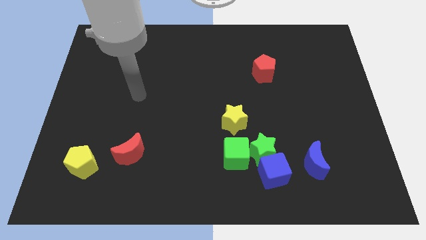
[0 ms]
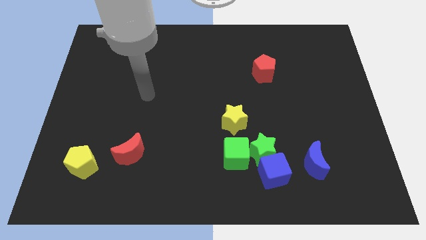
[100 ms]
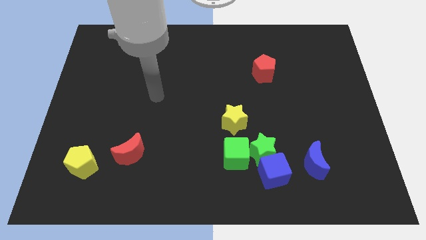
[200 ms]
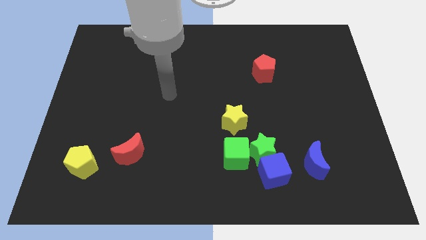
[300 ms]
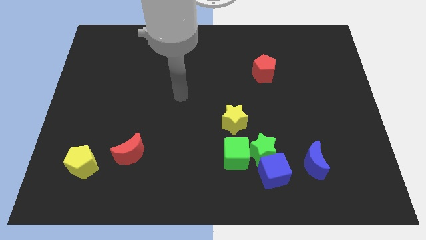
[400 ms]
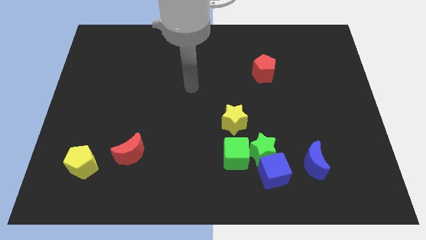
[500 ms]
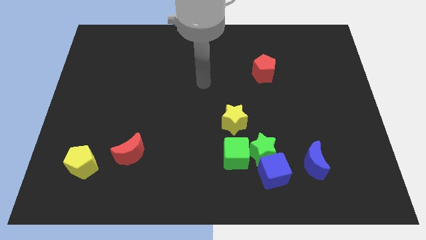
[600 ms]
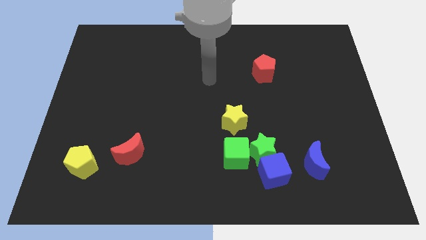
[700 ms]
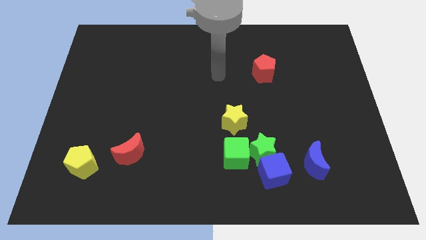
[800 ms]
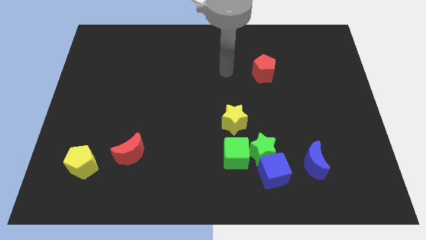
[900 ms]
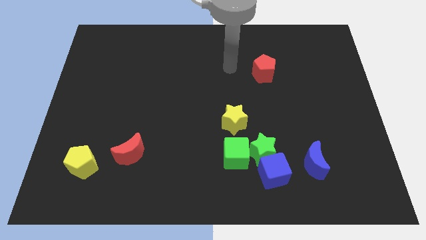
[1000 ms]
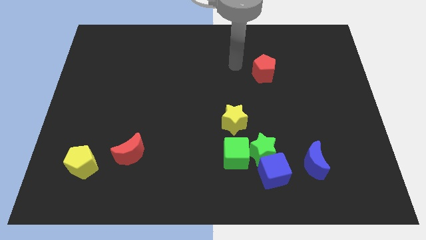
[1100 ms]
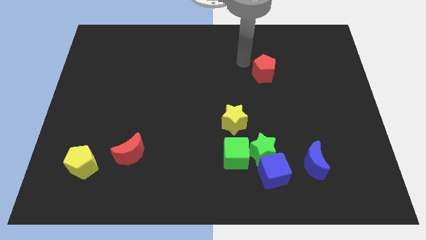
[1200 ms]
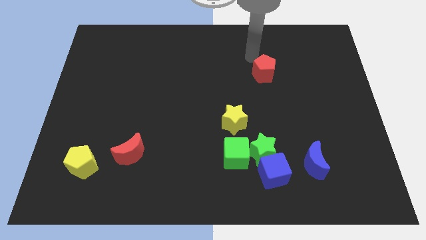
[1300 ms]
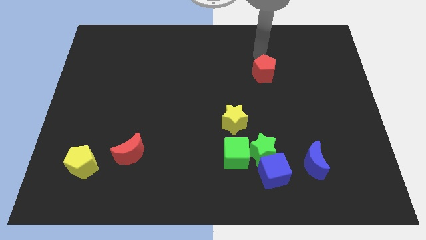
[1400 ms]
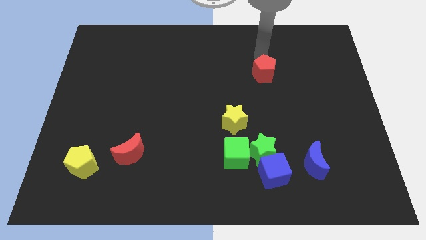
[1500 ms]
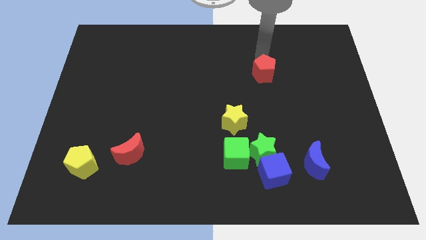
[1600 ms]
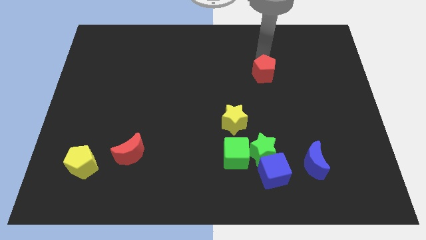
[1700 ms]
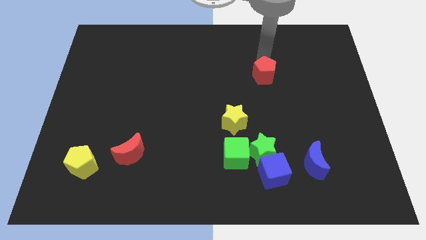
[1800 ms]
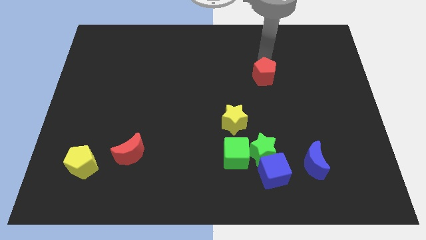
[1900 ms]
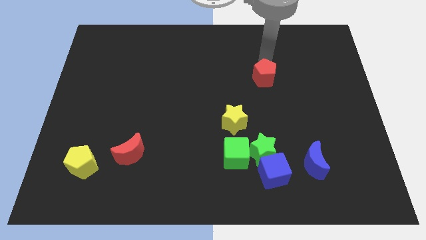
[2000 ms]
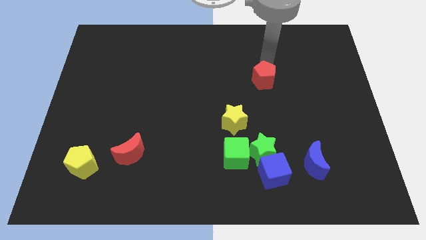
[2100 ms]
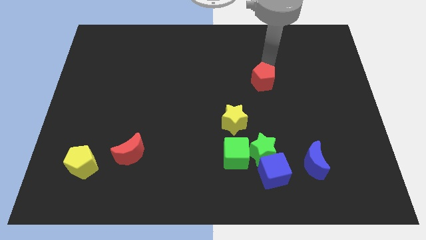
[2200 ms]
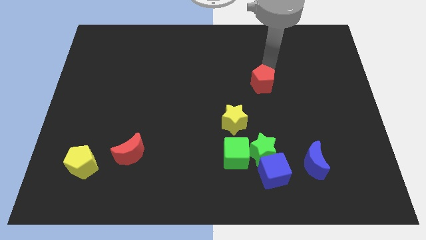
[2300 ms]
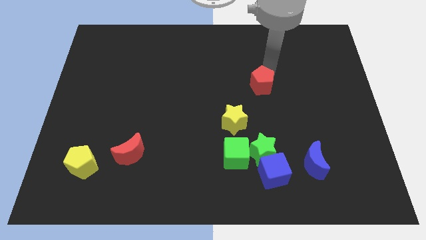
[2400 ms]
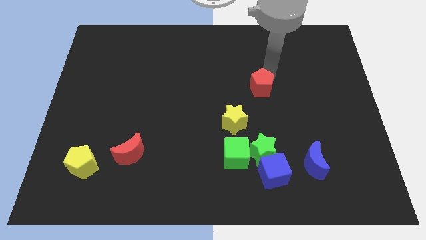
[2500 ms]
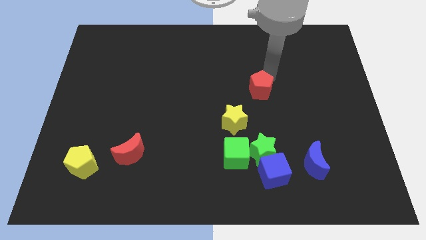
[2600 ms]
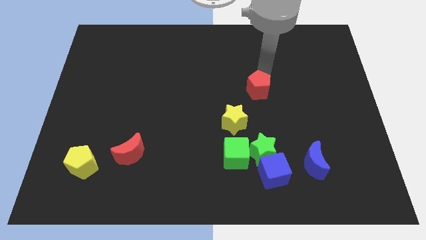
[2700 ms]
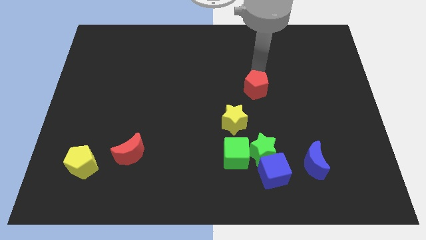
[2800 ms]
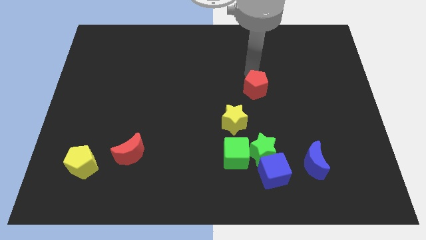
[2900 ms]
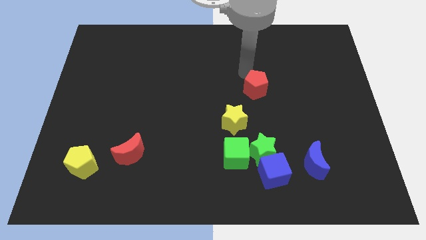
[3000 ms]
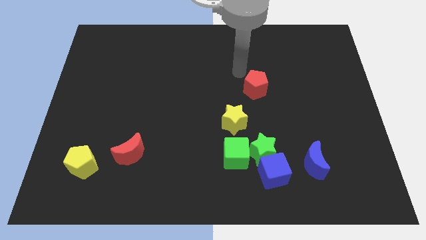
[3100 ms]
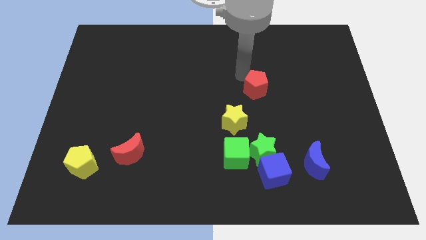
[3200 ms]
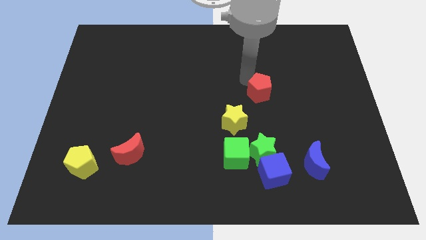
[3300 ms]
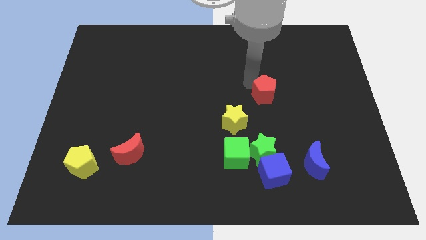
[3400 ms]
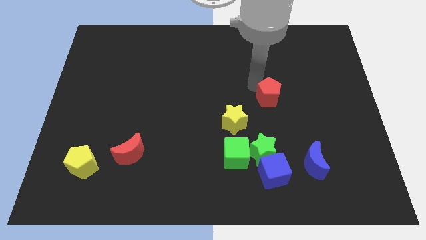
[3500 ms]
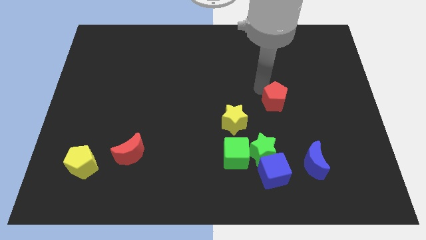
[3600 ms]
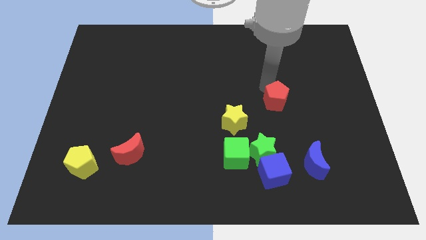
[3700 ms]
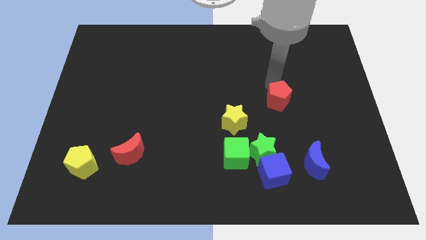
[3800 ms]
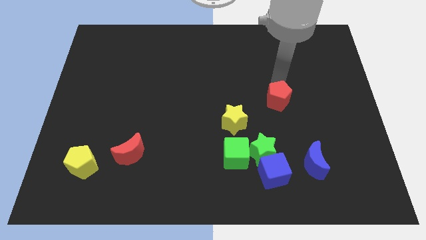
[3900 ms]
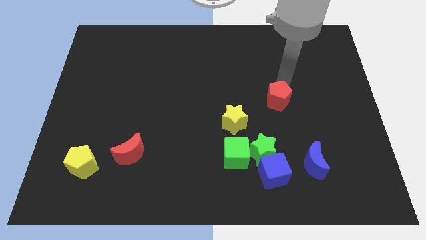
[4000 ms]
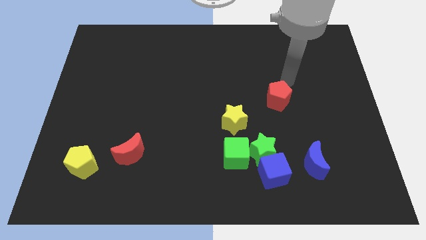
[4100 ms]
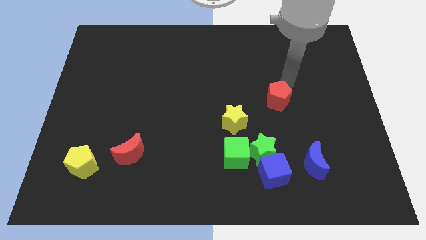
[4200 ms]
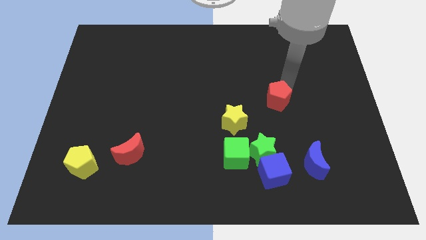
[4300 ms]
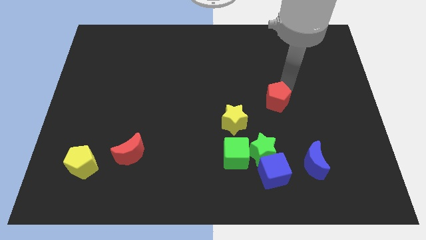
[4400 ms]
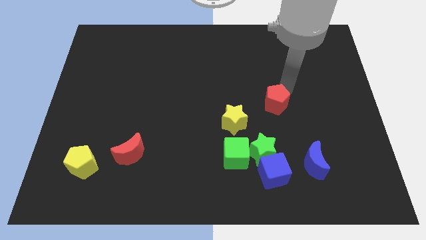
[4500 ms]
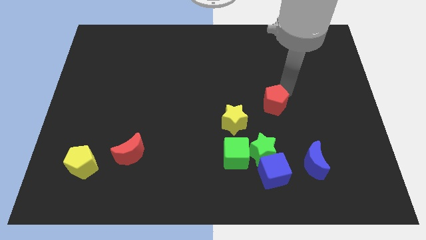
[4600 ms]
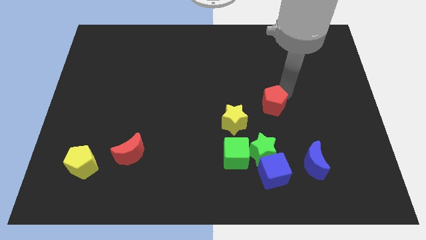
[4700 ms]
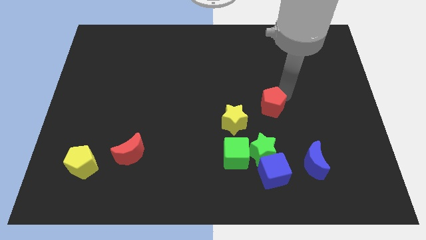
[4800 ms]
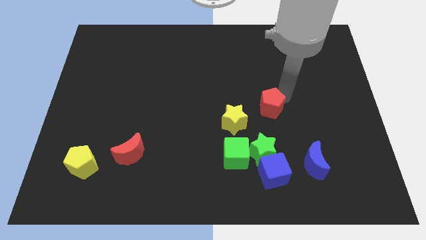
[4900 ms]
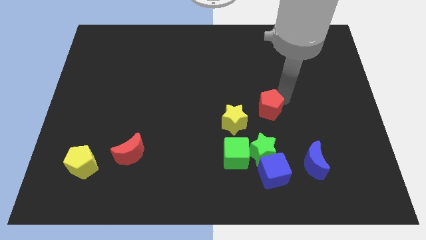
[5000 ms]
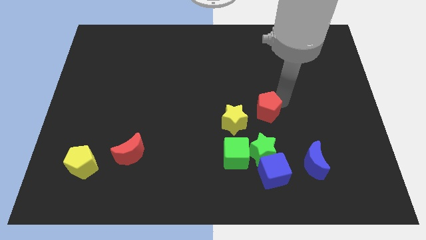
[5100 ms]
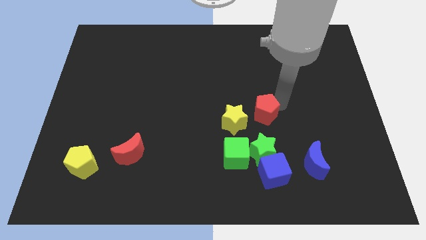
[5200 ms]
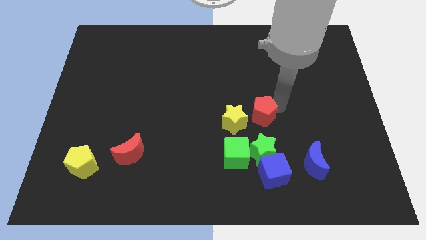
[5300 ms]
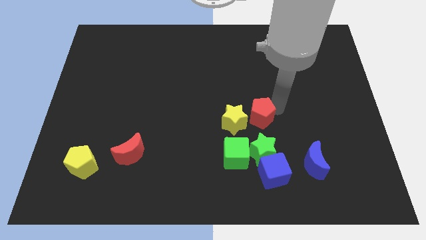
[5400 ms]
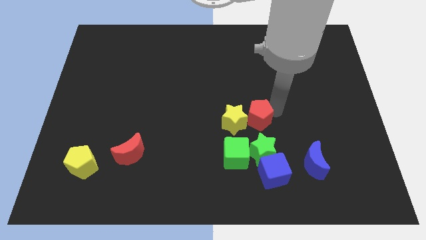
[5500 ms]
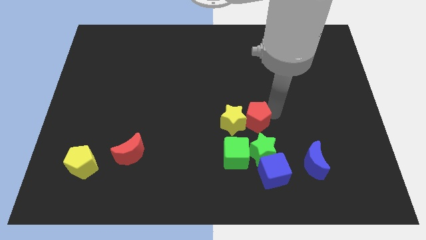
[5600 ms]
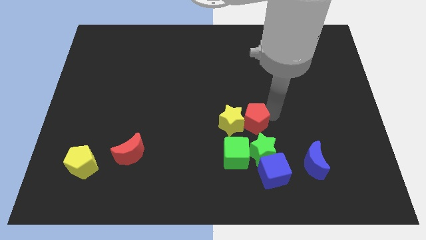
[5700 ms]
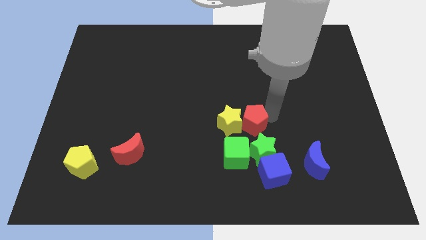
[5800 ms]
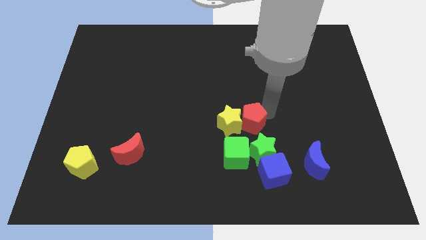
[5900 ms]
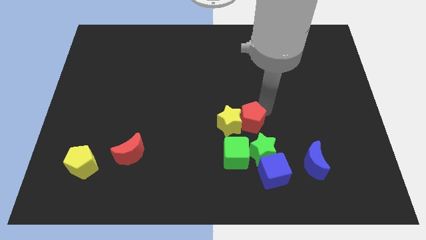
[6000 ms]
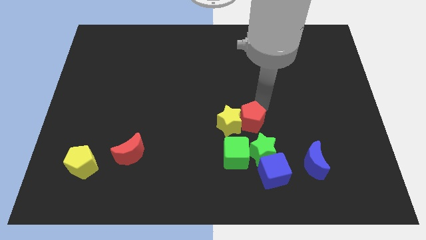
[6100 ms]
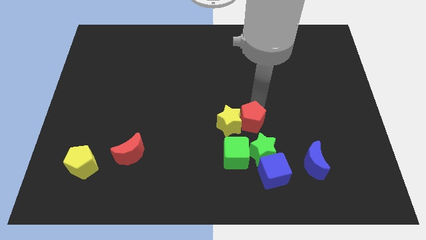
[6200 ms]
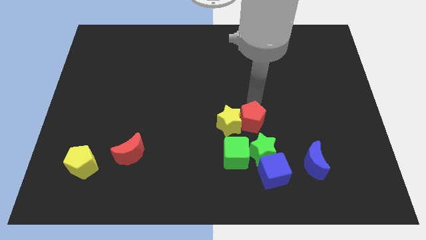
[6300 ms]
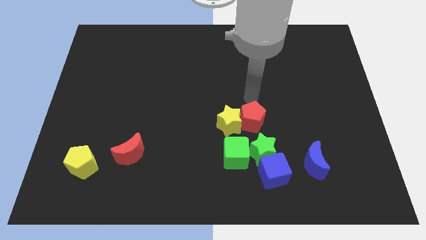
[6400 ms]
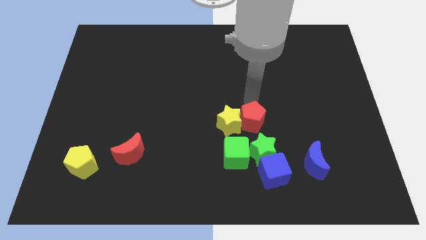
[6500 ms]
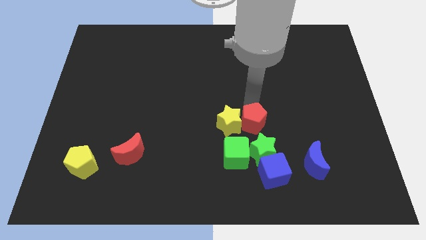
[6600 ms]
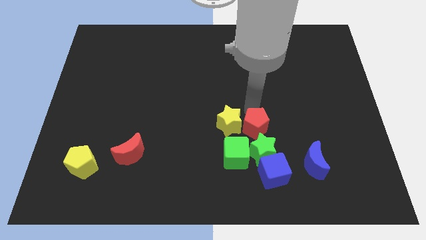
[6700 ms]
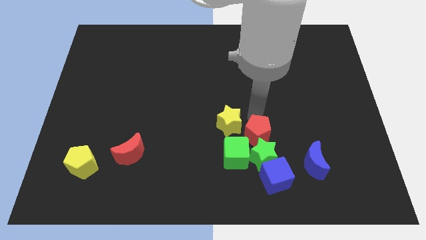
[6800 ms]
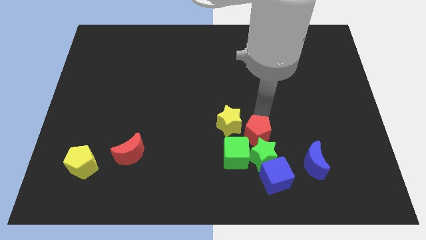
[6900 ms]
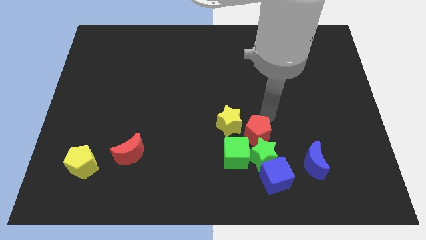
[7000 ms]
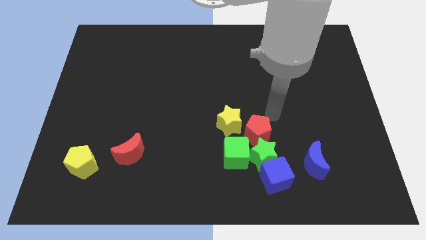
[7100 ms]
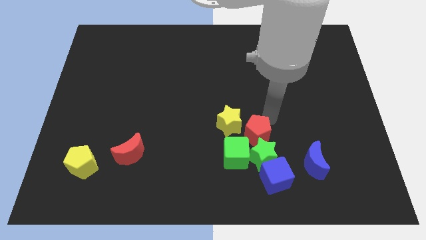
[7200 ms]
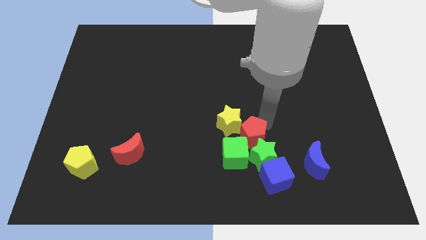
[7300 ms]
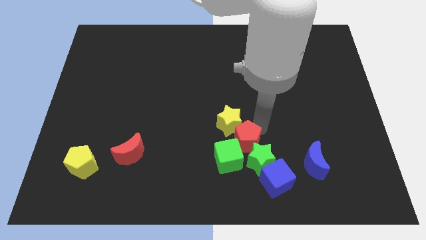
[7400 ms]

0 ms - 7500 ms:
slide the red pentagon next to the green cube
